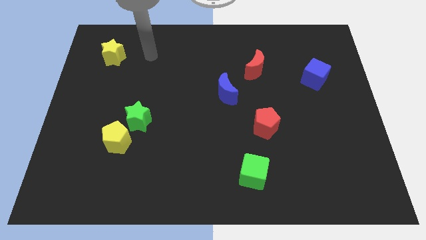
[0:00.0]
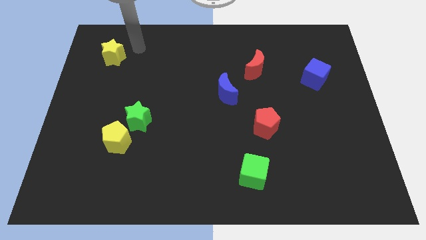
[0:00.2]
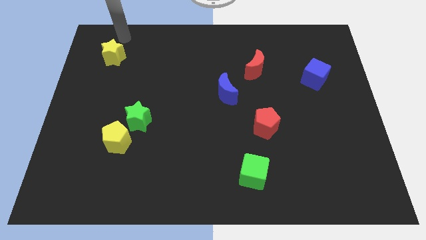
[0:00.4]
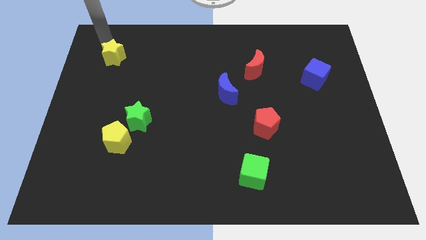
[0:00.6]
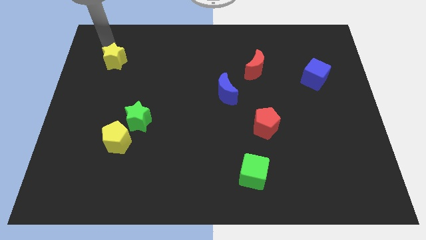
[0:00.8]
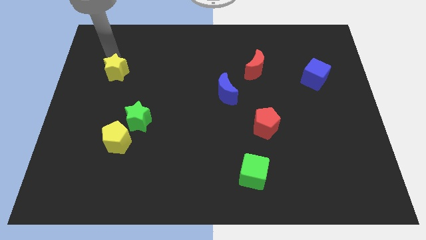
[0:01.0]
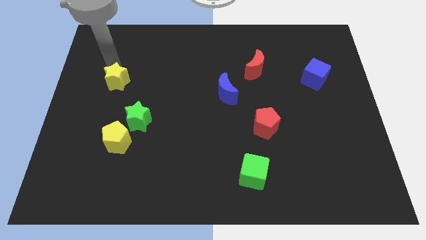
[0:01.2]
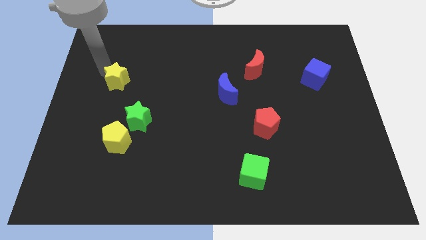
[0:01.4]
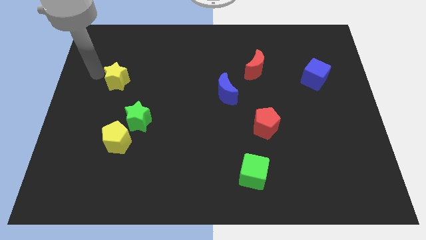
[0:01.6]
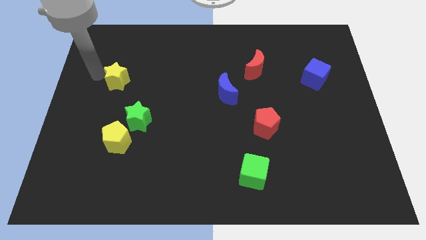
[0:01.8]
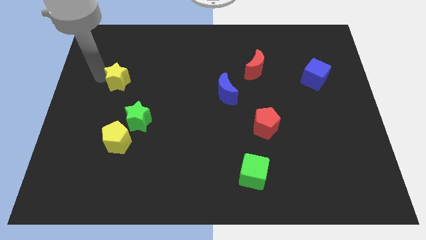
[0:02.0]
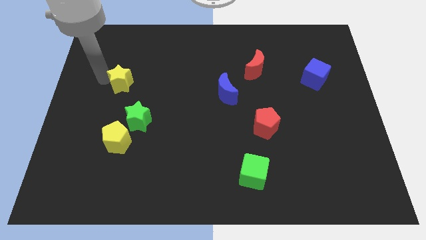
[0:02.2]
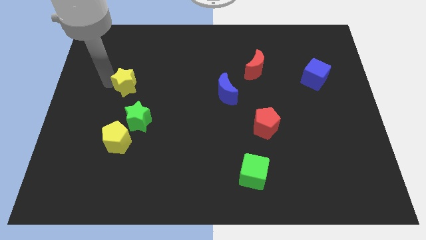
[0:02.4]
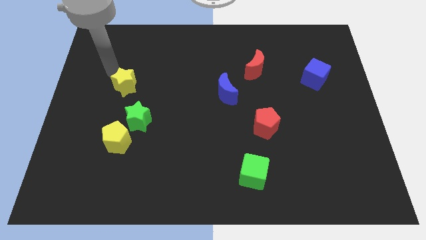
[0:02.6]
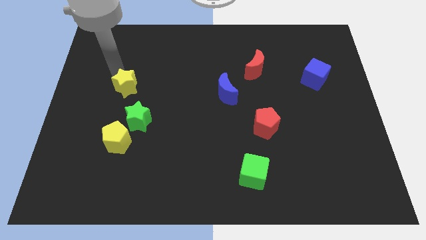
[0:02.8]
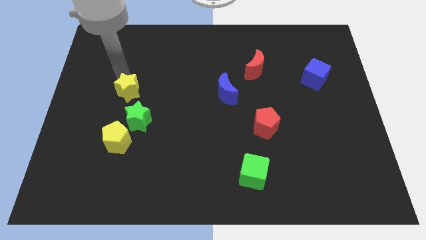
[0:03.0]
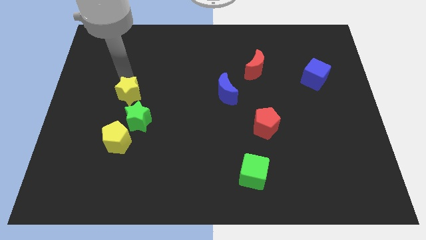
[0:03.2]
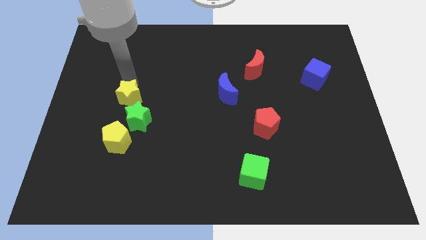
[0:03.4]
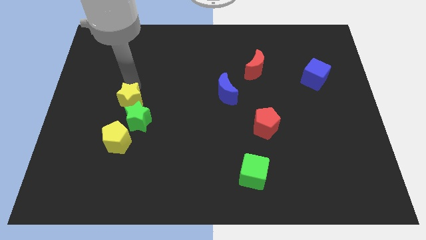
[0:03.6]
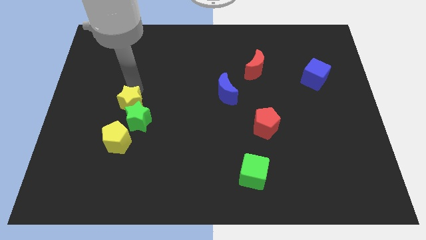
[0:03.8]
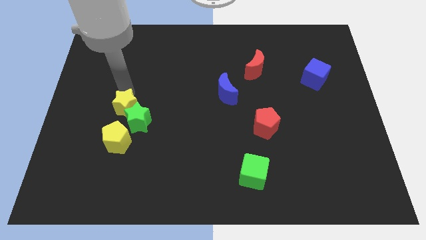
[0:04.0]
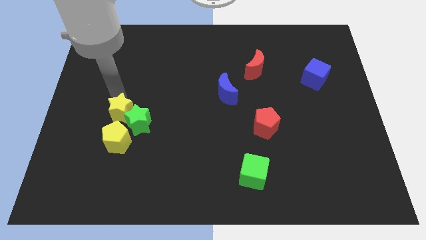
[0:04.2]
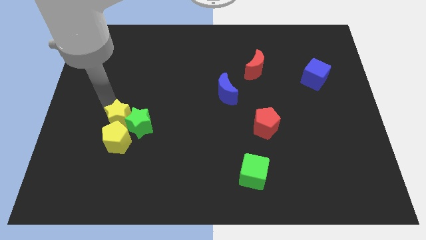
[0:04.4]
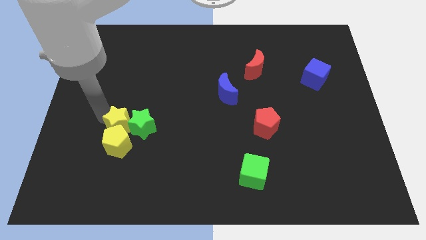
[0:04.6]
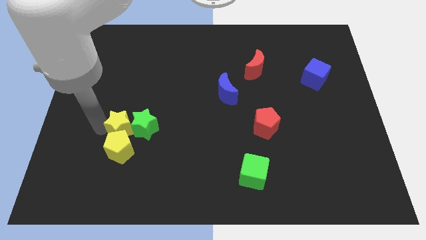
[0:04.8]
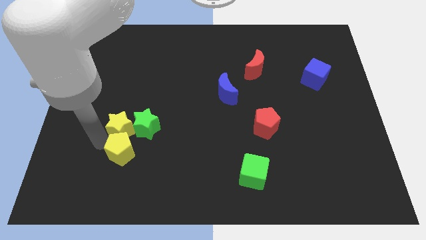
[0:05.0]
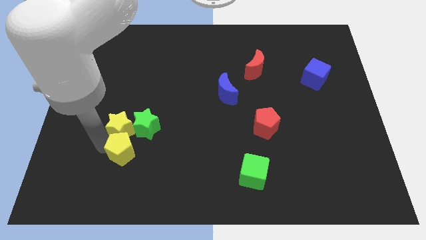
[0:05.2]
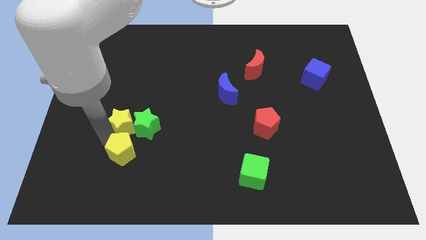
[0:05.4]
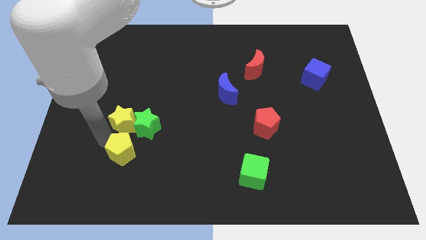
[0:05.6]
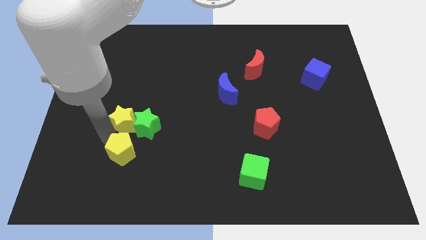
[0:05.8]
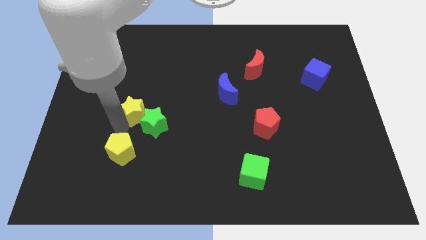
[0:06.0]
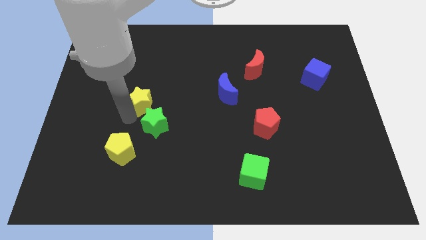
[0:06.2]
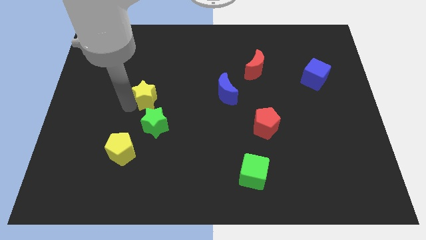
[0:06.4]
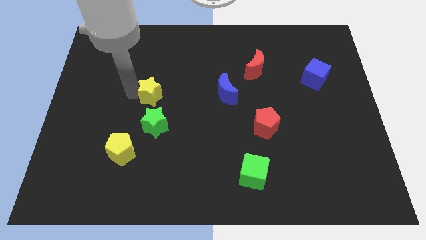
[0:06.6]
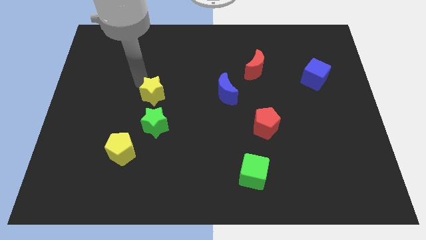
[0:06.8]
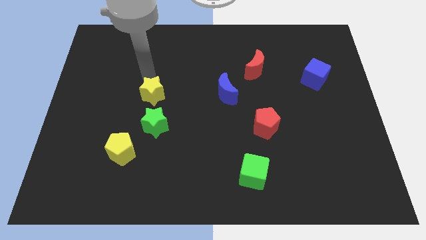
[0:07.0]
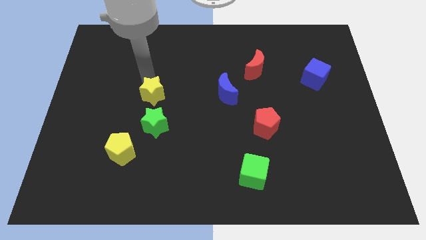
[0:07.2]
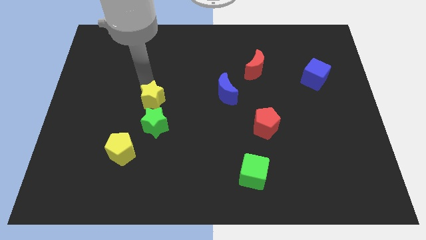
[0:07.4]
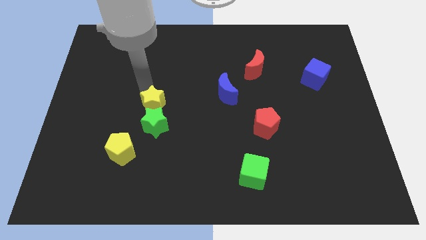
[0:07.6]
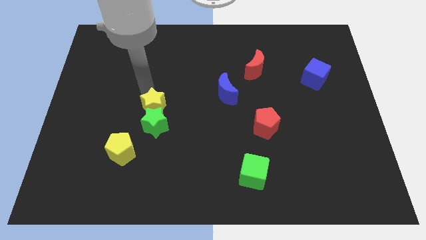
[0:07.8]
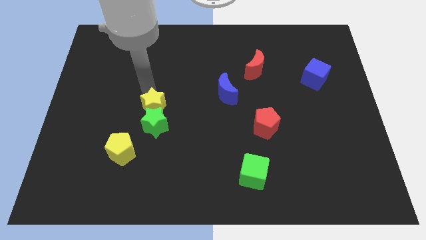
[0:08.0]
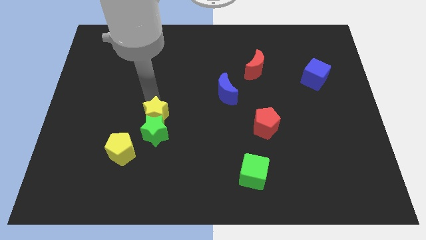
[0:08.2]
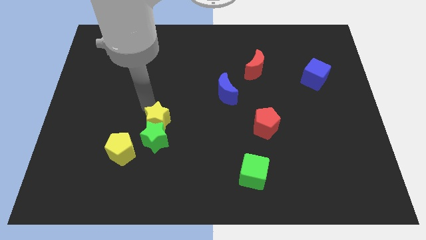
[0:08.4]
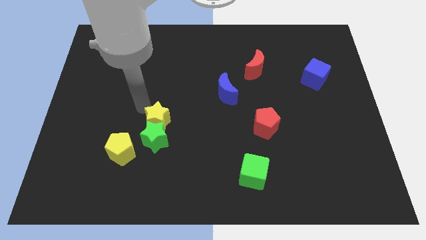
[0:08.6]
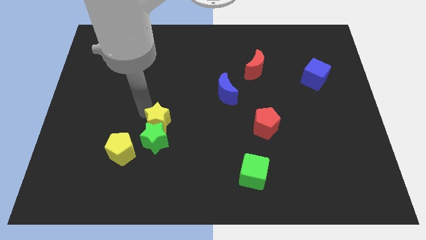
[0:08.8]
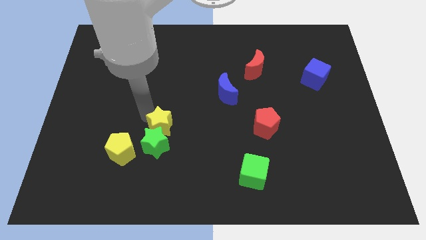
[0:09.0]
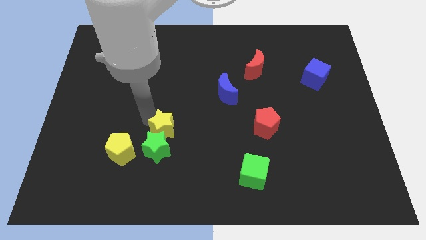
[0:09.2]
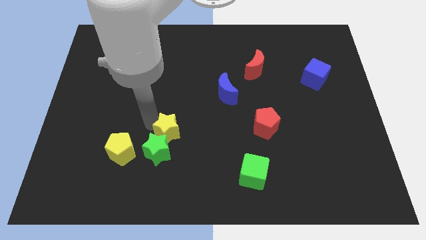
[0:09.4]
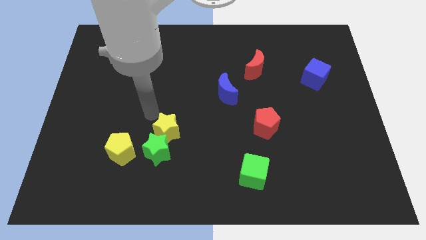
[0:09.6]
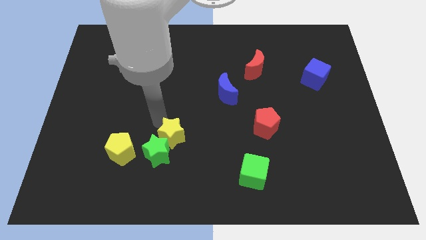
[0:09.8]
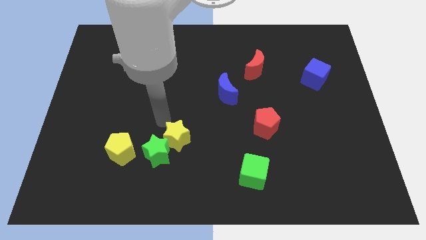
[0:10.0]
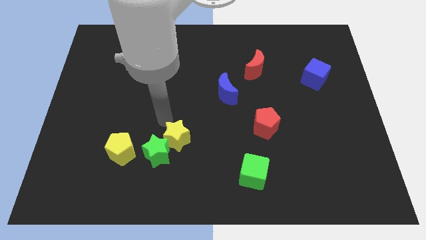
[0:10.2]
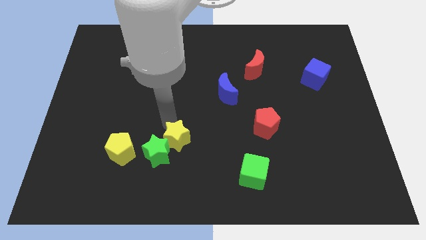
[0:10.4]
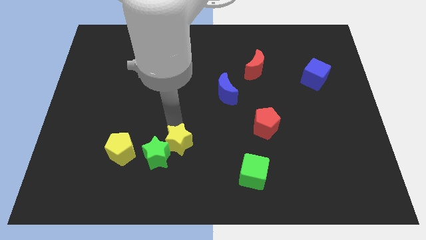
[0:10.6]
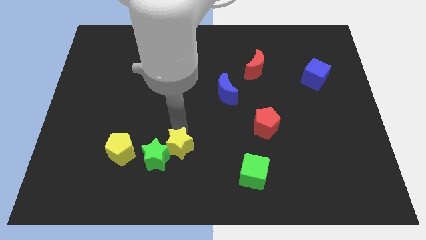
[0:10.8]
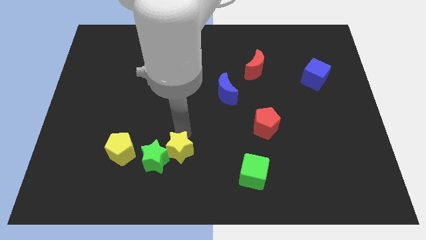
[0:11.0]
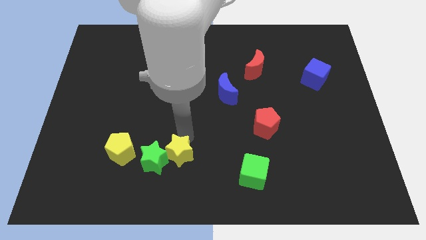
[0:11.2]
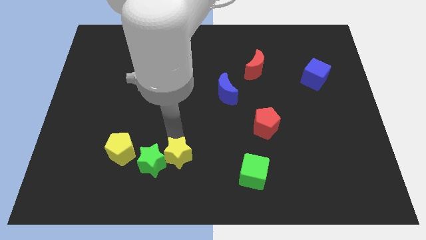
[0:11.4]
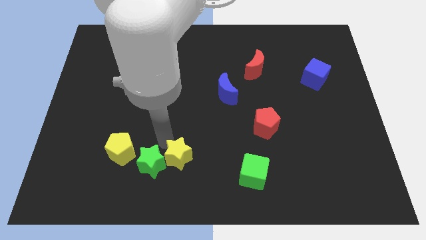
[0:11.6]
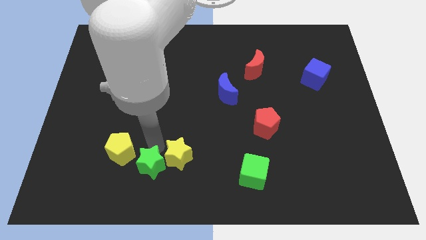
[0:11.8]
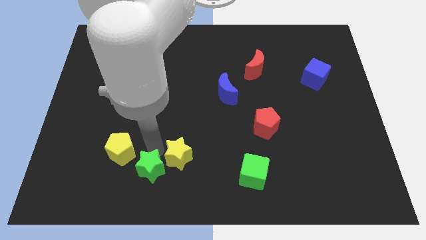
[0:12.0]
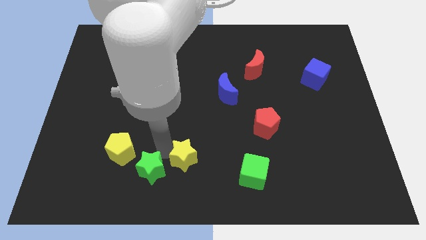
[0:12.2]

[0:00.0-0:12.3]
put the yellow star to the left of the green cube

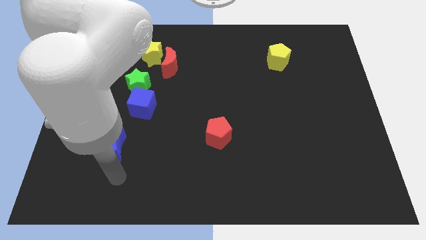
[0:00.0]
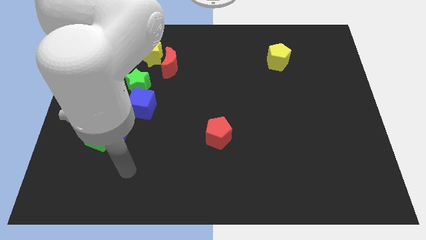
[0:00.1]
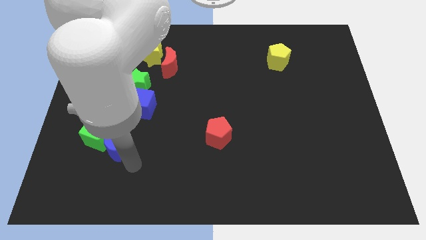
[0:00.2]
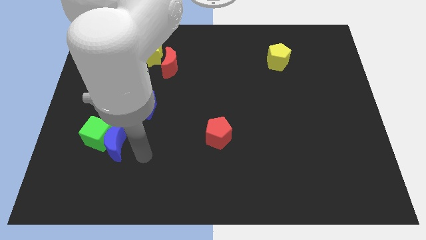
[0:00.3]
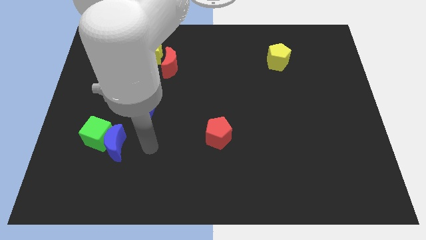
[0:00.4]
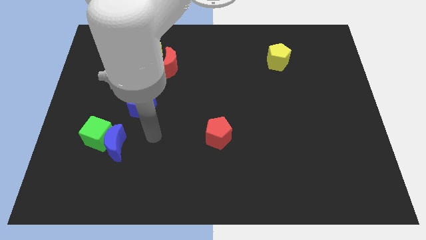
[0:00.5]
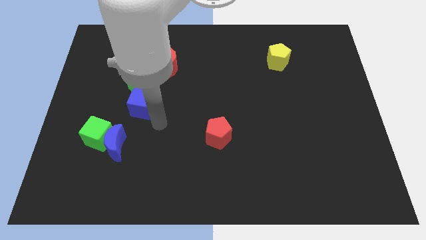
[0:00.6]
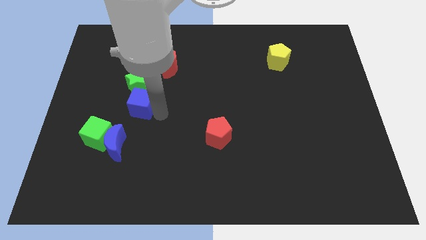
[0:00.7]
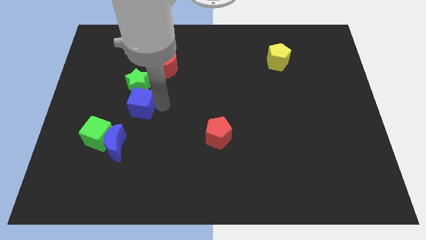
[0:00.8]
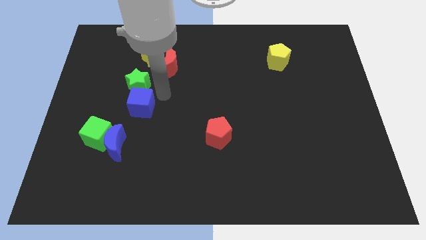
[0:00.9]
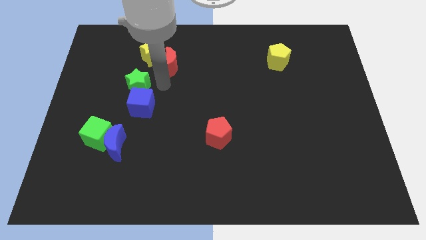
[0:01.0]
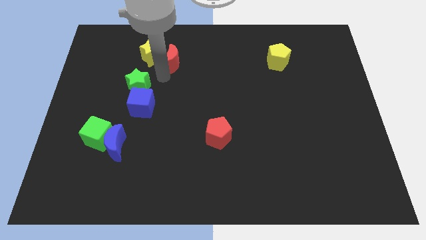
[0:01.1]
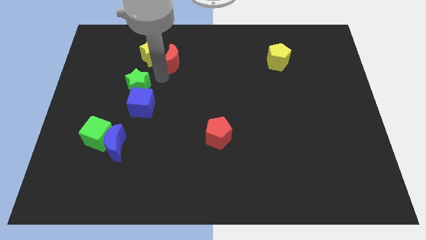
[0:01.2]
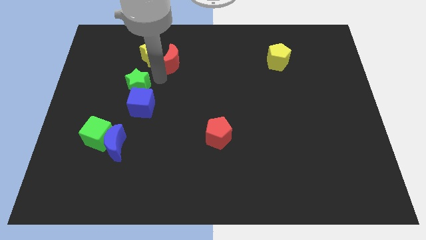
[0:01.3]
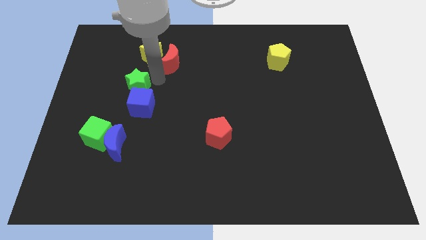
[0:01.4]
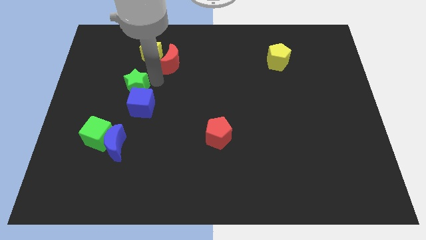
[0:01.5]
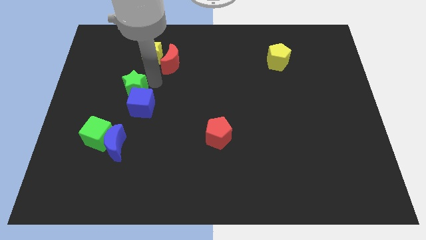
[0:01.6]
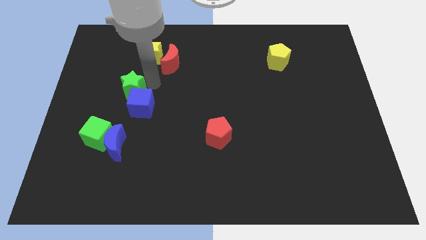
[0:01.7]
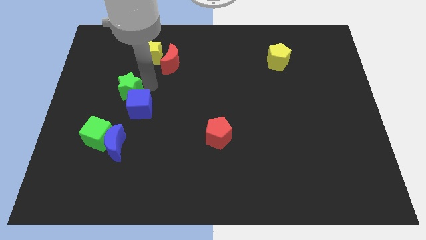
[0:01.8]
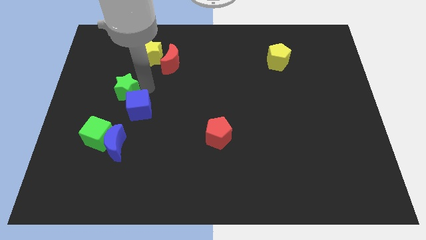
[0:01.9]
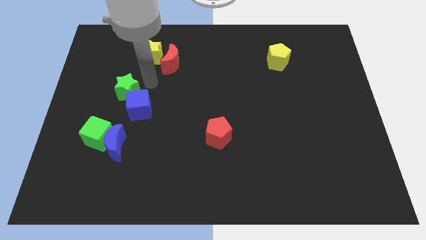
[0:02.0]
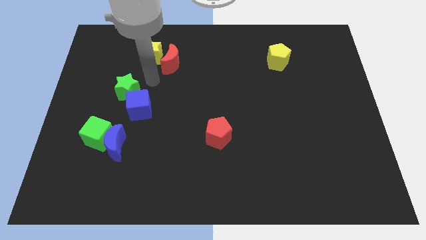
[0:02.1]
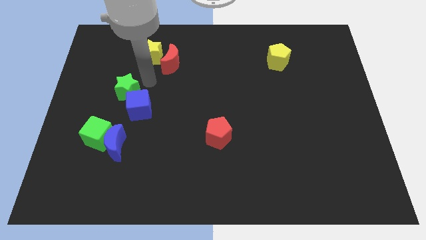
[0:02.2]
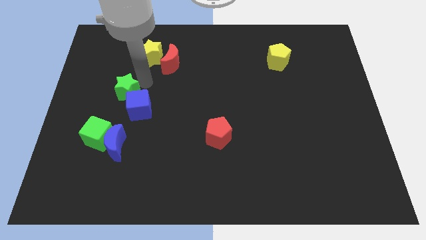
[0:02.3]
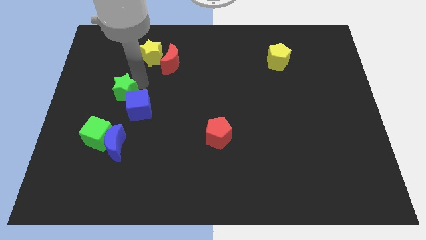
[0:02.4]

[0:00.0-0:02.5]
put the green star to the left of the blue cube
